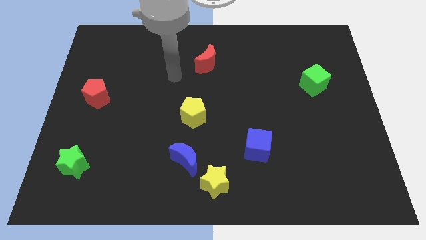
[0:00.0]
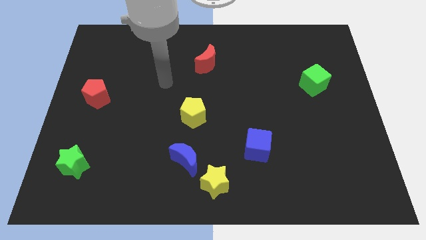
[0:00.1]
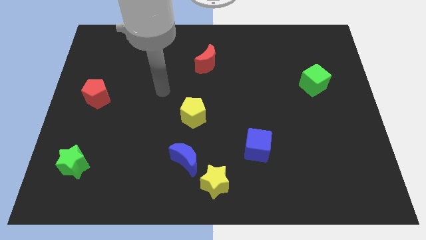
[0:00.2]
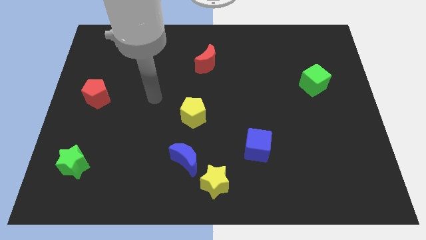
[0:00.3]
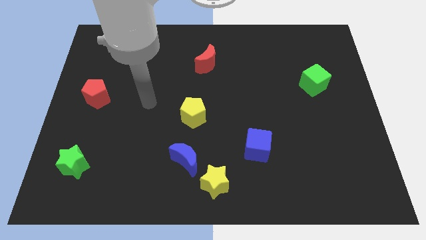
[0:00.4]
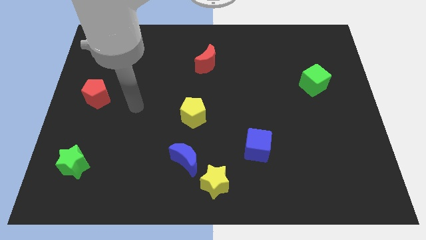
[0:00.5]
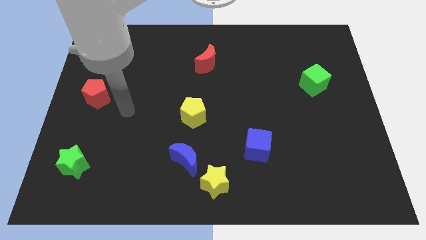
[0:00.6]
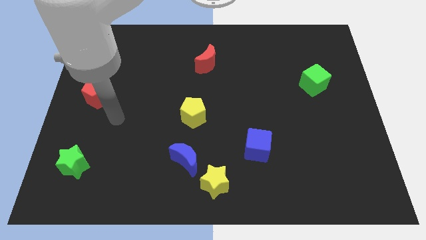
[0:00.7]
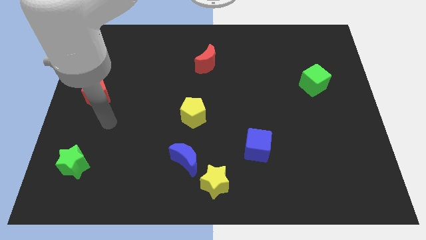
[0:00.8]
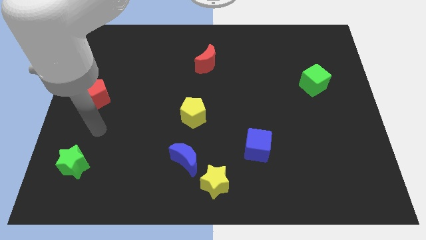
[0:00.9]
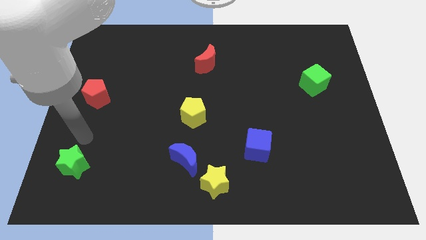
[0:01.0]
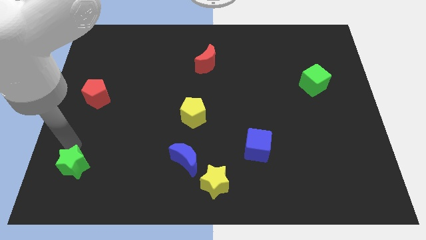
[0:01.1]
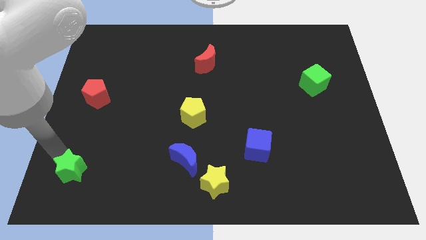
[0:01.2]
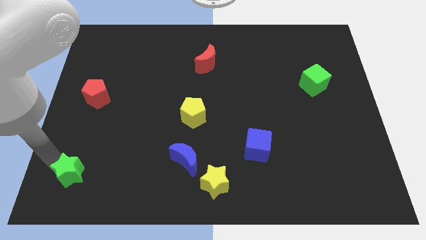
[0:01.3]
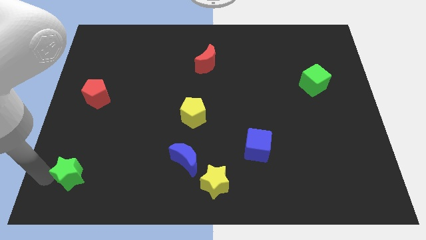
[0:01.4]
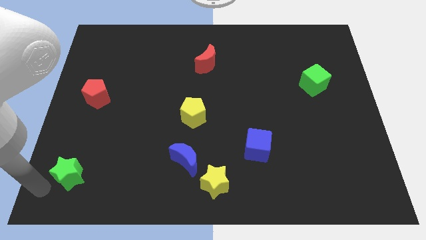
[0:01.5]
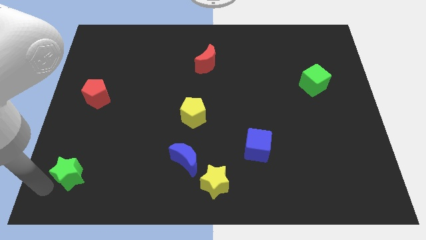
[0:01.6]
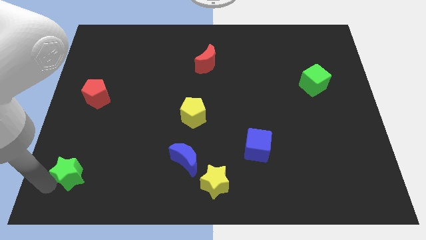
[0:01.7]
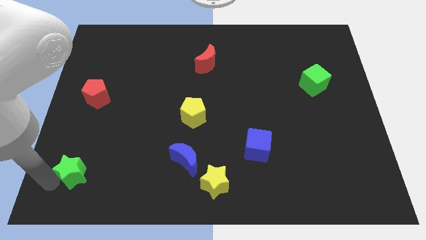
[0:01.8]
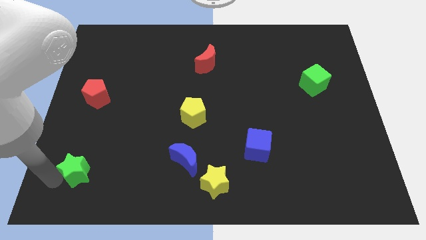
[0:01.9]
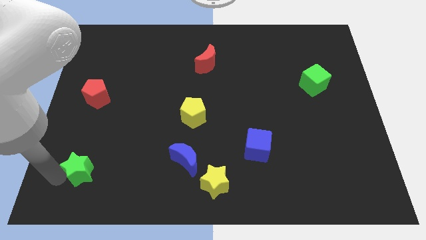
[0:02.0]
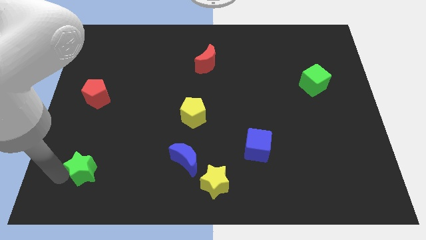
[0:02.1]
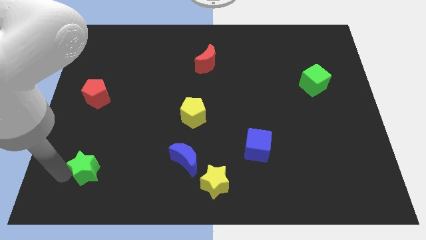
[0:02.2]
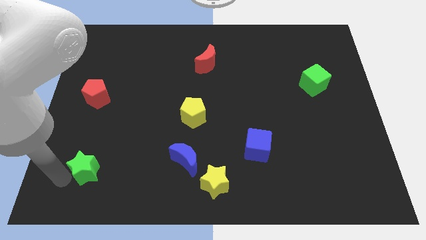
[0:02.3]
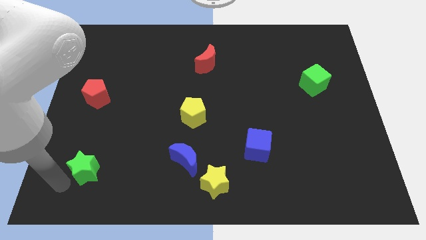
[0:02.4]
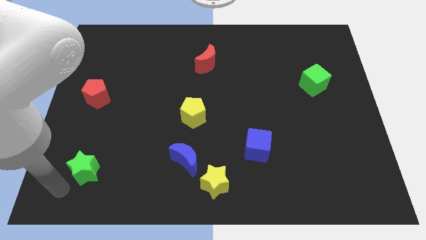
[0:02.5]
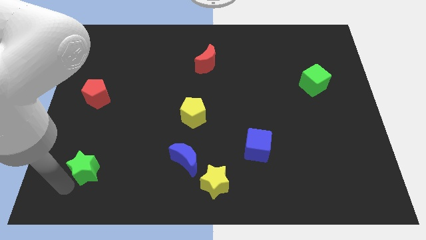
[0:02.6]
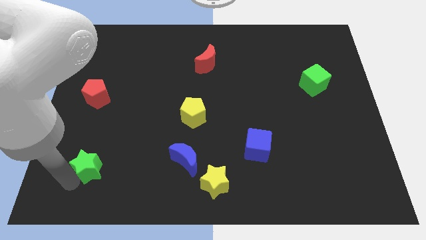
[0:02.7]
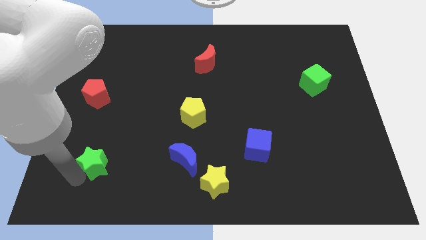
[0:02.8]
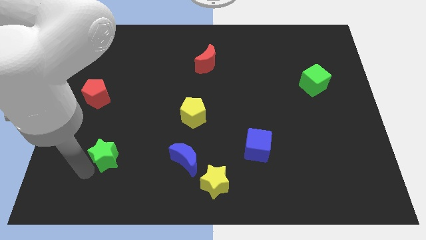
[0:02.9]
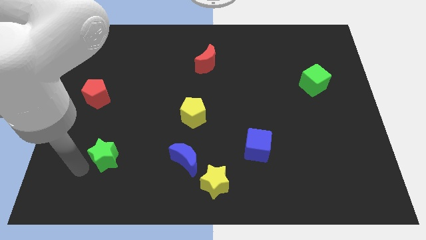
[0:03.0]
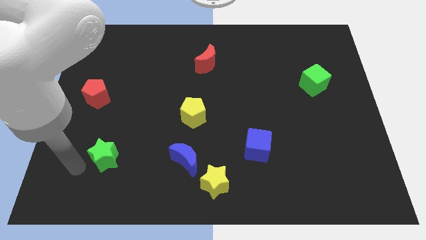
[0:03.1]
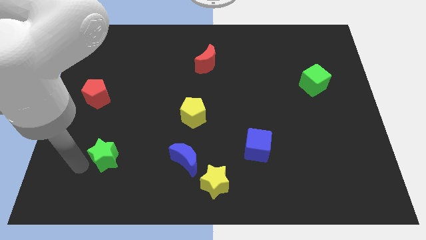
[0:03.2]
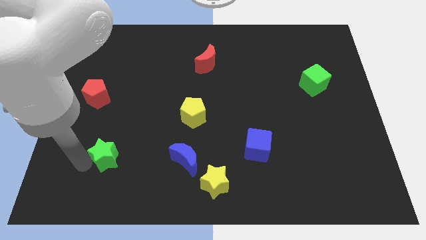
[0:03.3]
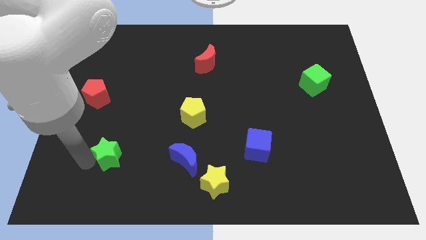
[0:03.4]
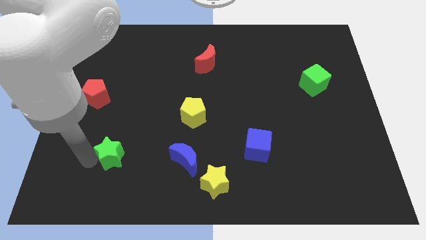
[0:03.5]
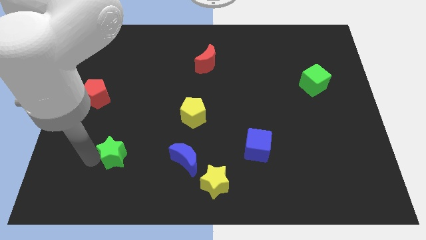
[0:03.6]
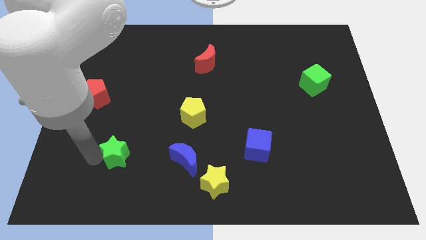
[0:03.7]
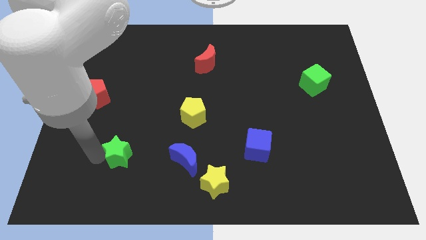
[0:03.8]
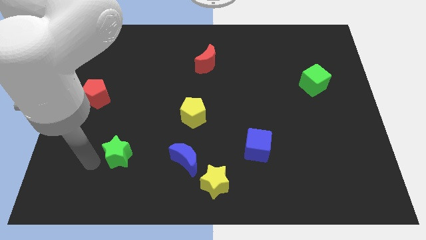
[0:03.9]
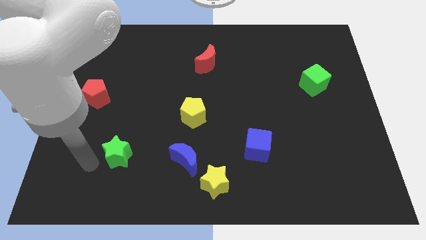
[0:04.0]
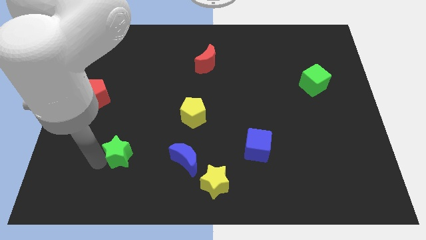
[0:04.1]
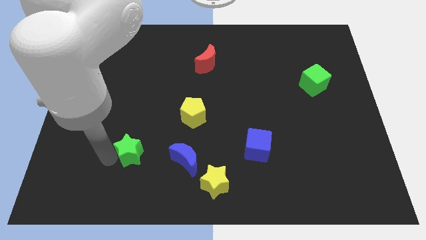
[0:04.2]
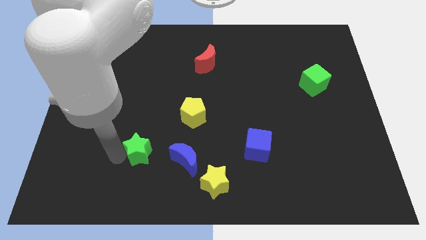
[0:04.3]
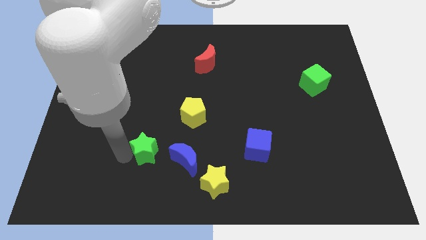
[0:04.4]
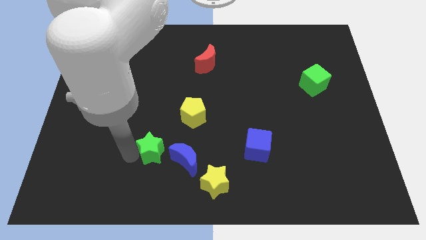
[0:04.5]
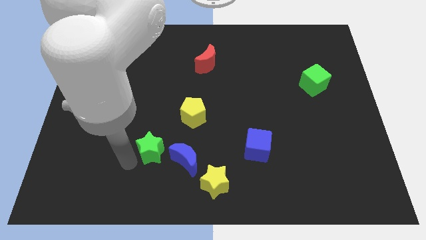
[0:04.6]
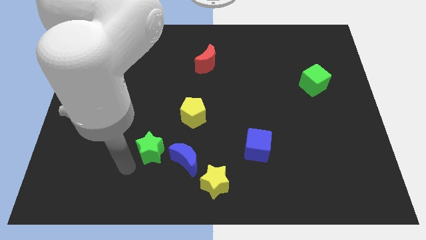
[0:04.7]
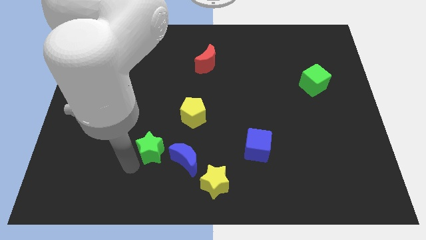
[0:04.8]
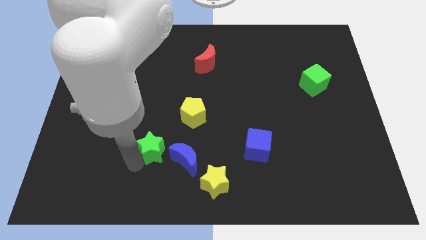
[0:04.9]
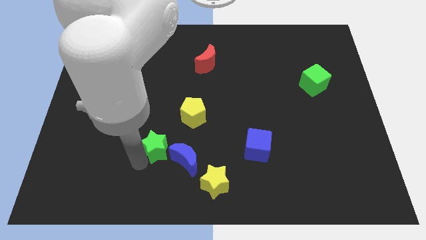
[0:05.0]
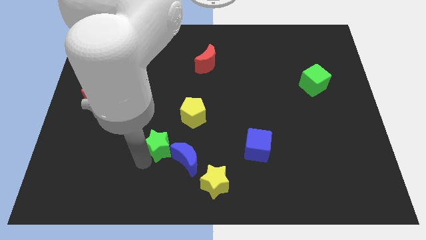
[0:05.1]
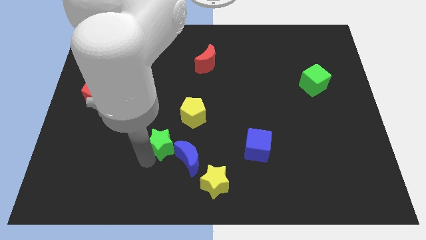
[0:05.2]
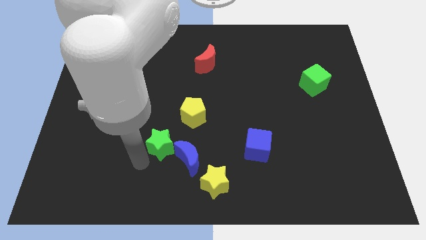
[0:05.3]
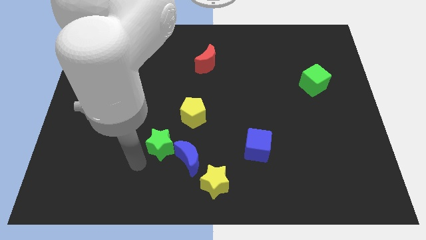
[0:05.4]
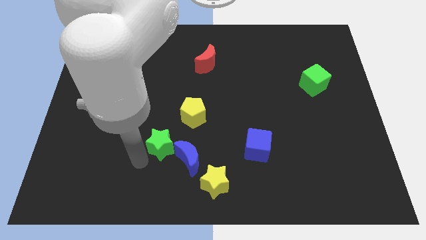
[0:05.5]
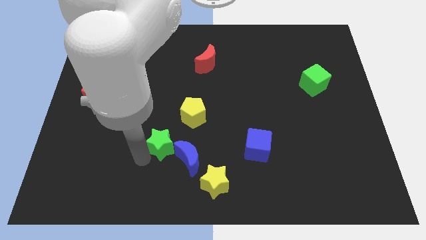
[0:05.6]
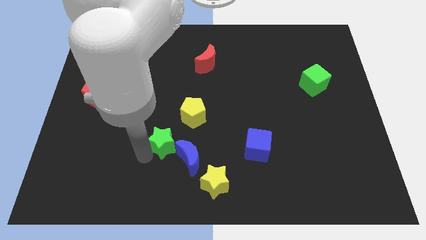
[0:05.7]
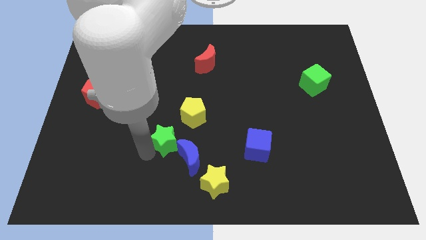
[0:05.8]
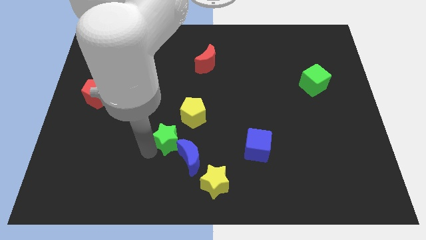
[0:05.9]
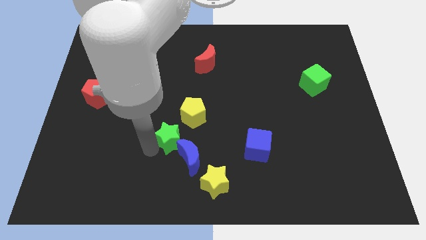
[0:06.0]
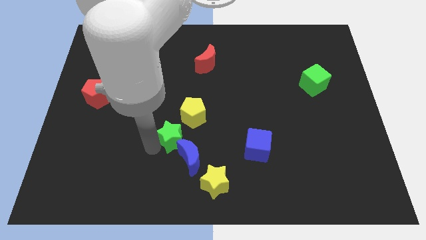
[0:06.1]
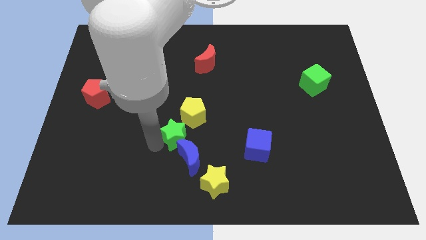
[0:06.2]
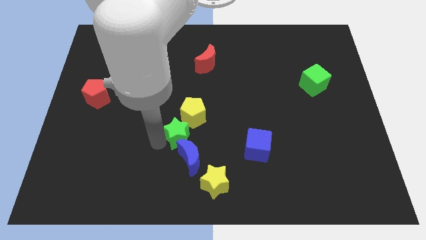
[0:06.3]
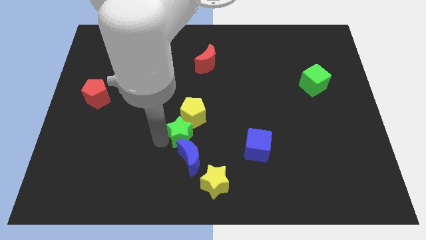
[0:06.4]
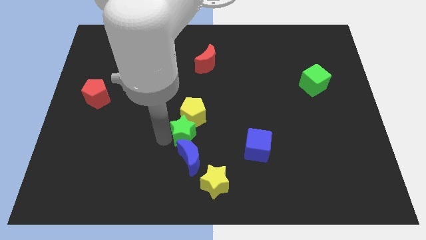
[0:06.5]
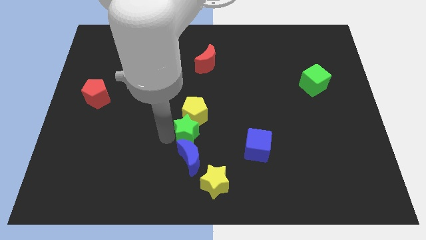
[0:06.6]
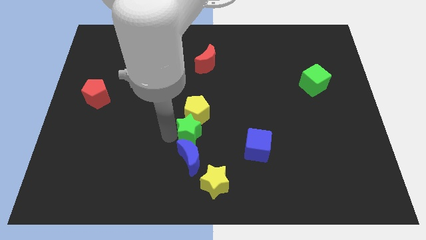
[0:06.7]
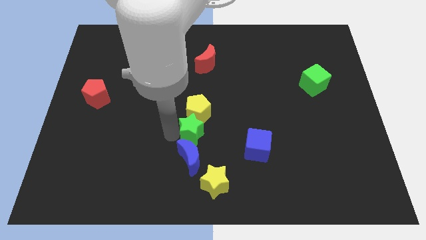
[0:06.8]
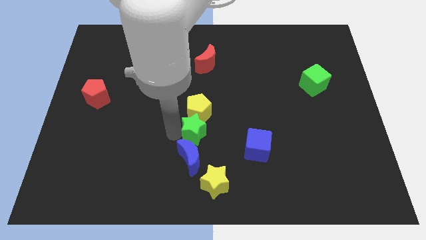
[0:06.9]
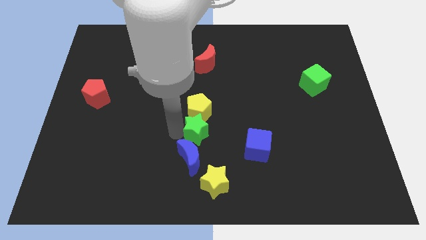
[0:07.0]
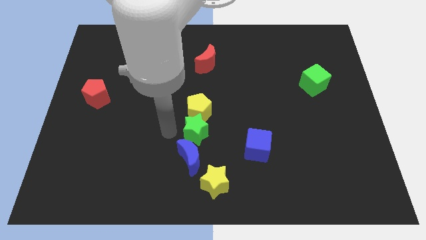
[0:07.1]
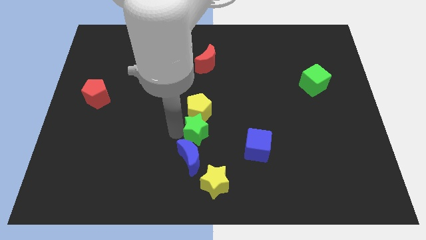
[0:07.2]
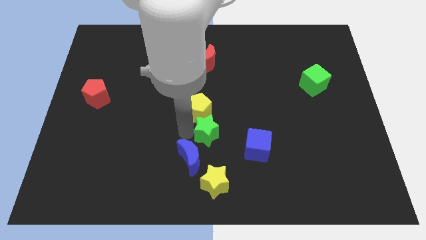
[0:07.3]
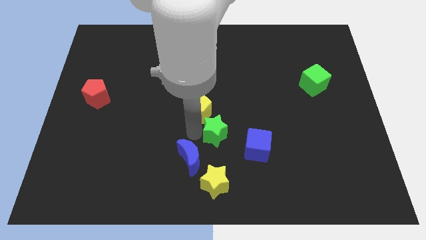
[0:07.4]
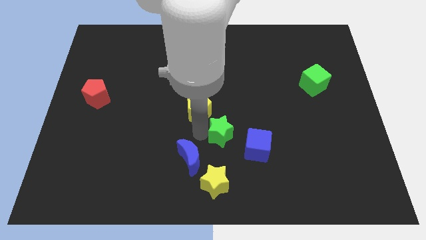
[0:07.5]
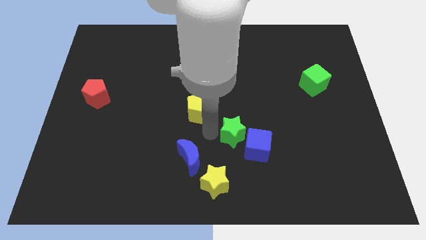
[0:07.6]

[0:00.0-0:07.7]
move the green star to the blue cube

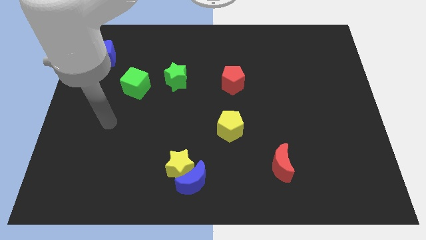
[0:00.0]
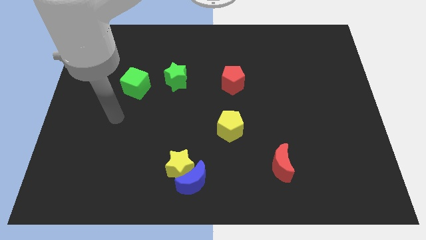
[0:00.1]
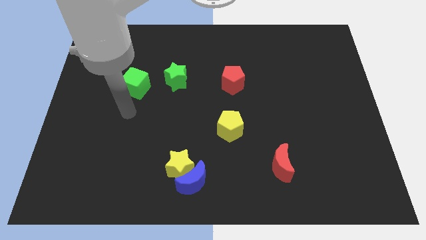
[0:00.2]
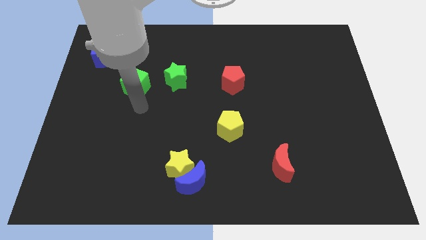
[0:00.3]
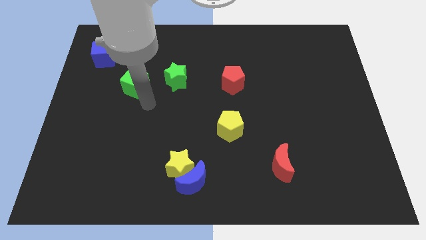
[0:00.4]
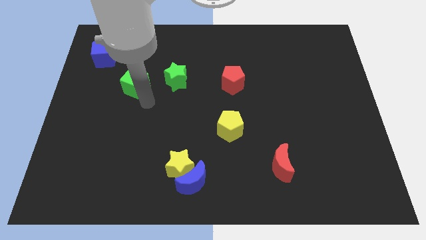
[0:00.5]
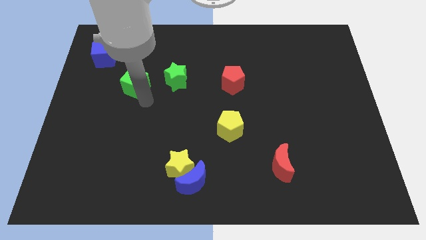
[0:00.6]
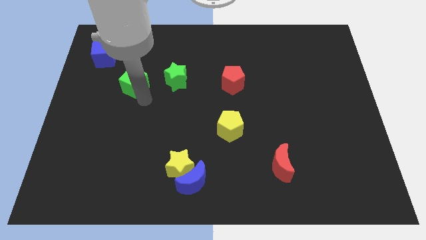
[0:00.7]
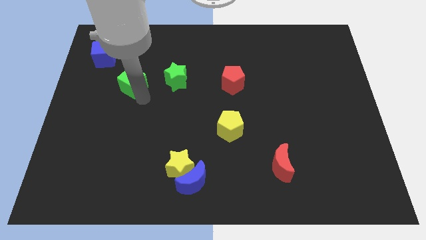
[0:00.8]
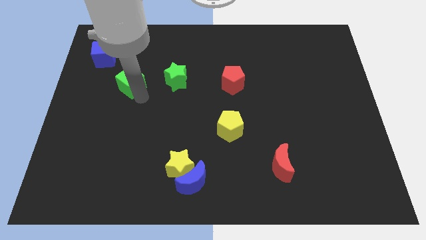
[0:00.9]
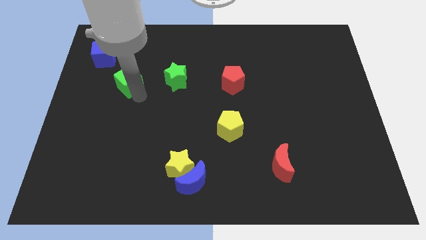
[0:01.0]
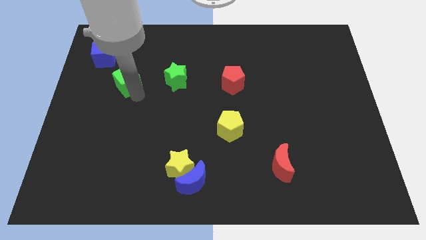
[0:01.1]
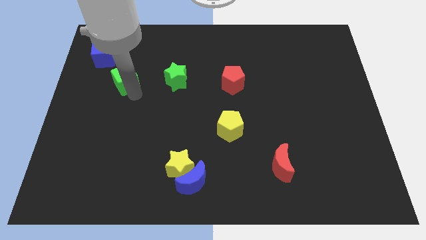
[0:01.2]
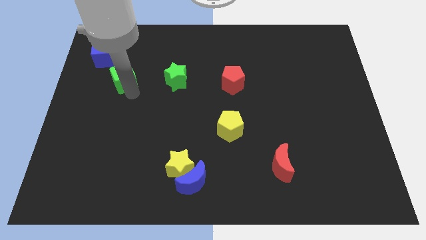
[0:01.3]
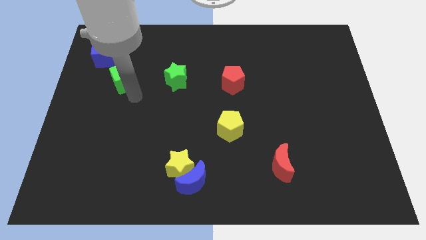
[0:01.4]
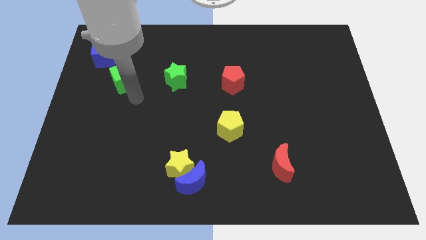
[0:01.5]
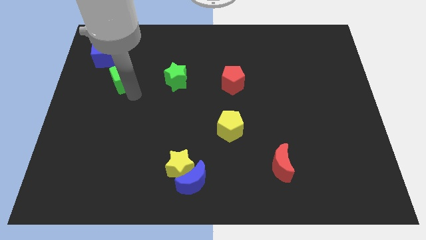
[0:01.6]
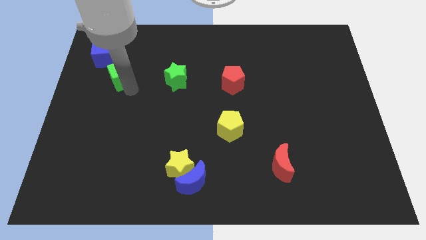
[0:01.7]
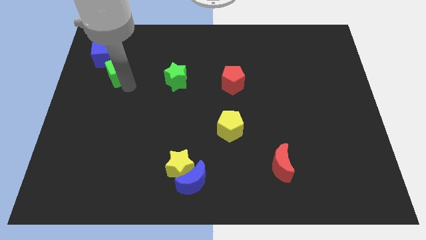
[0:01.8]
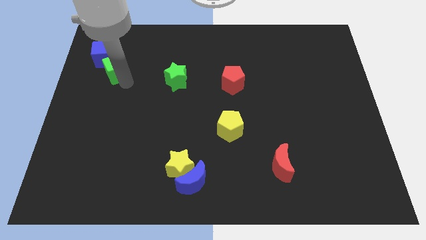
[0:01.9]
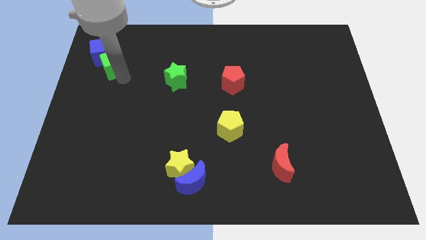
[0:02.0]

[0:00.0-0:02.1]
push the green cube to the blue cube
